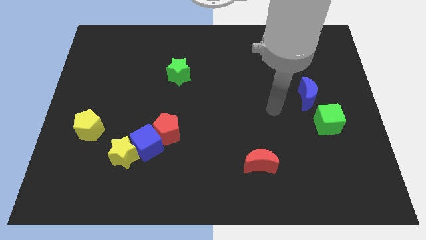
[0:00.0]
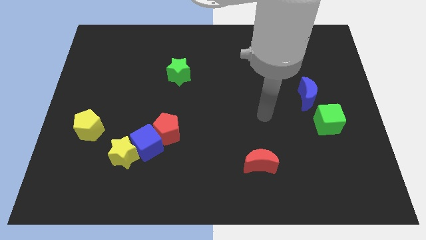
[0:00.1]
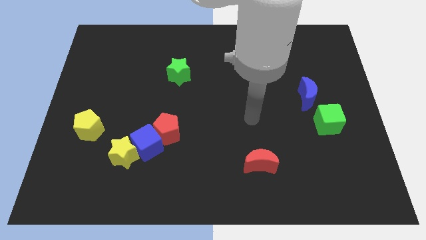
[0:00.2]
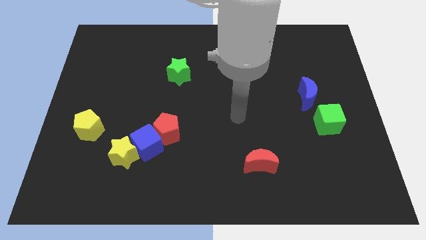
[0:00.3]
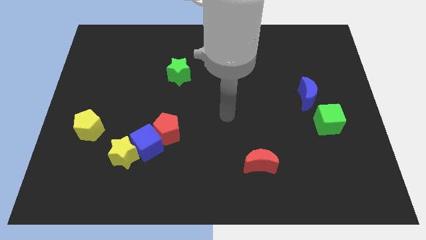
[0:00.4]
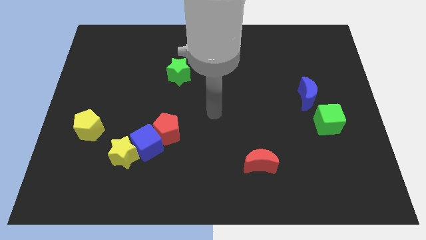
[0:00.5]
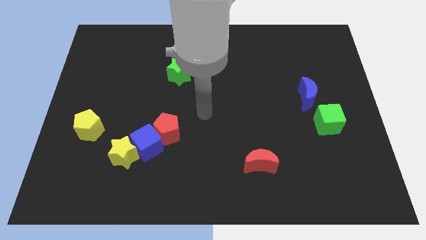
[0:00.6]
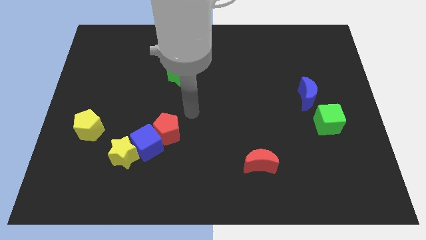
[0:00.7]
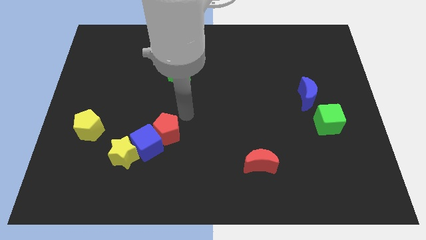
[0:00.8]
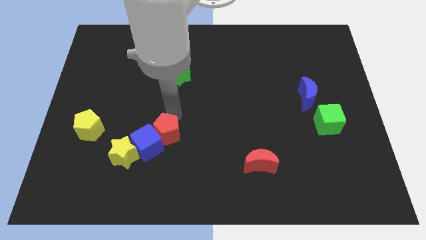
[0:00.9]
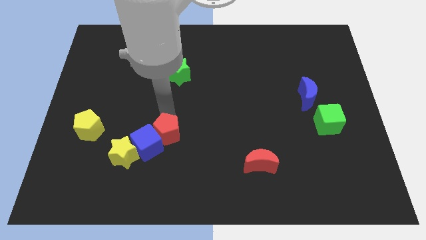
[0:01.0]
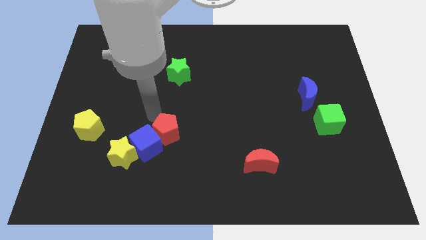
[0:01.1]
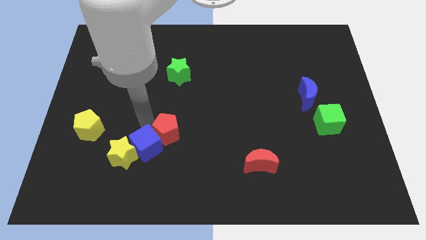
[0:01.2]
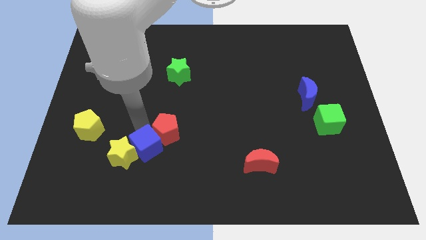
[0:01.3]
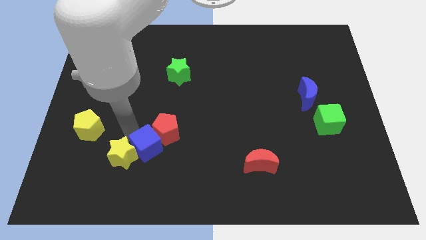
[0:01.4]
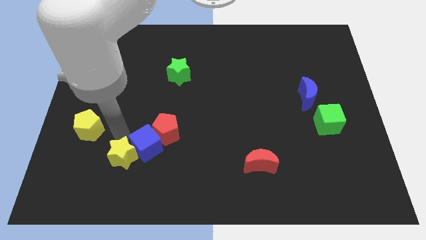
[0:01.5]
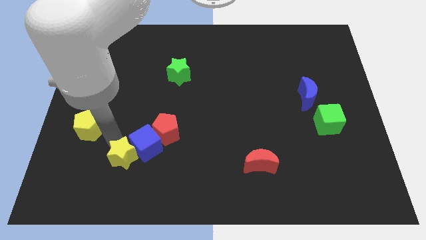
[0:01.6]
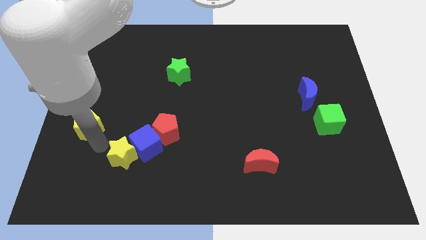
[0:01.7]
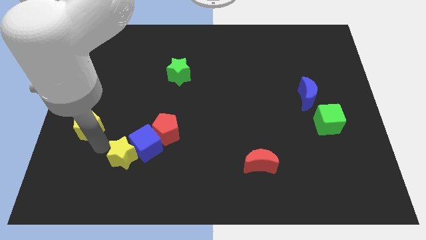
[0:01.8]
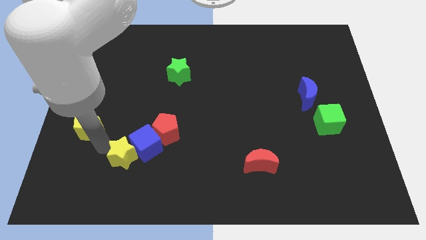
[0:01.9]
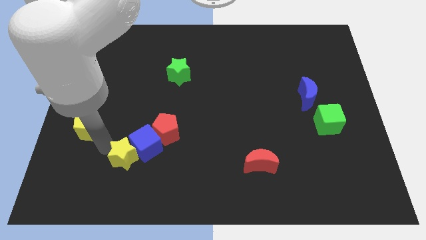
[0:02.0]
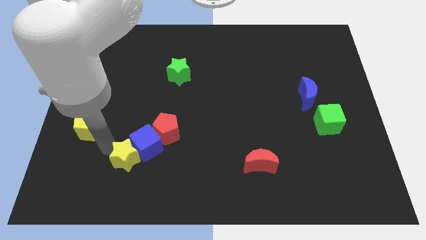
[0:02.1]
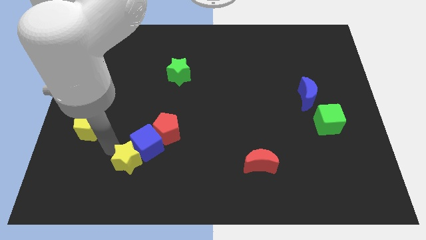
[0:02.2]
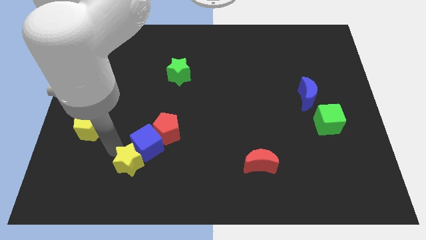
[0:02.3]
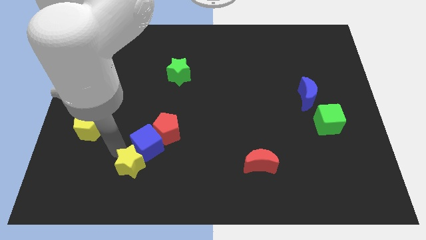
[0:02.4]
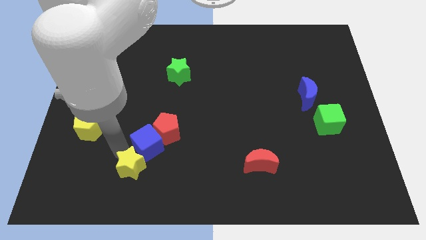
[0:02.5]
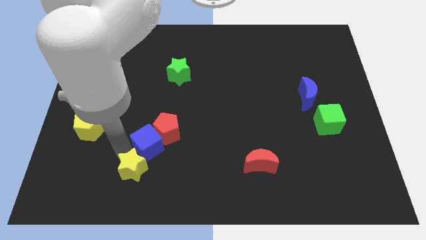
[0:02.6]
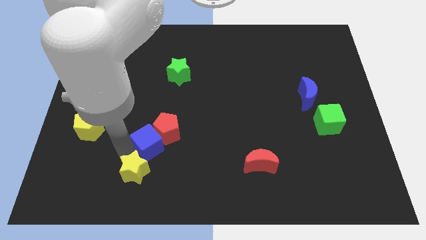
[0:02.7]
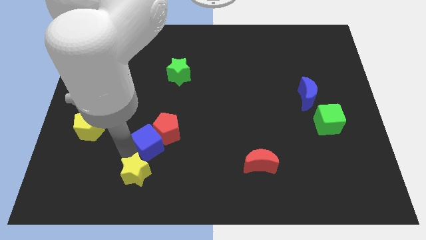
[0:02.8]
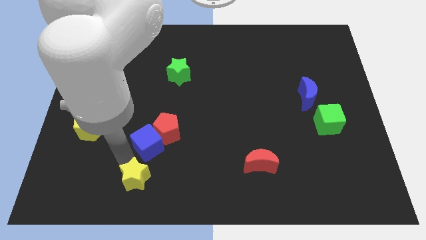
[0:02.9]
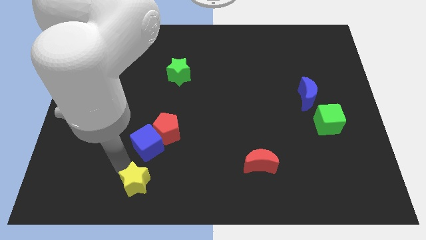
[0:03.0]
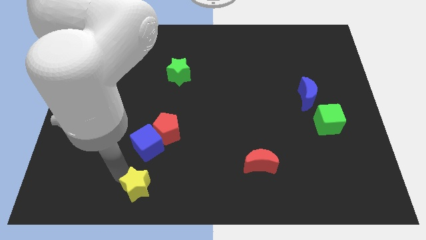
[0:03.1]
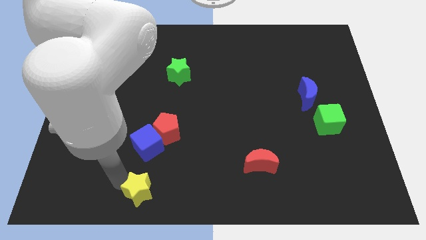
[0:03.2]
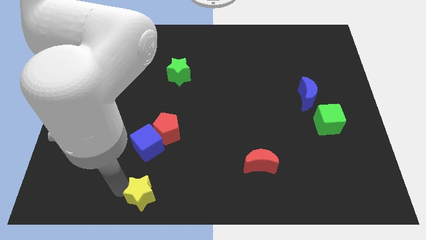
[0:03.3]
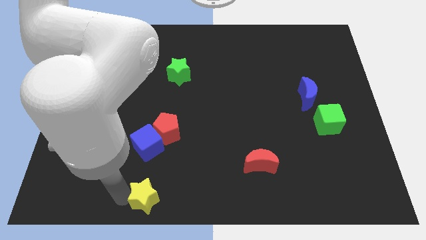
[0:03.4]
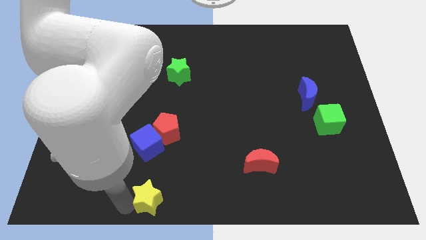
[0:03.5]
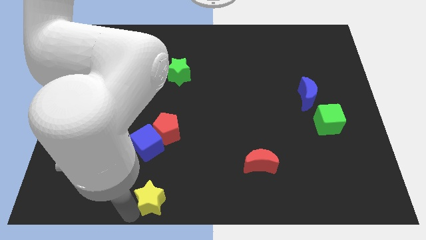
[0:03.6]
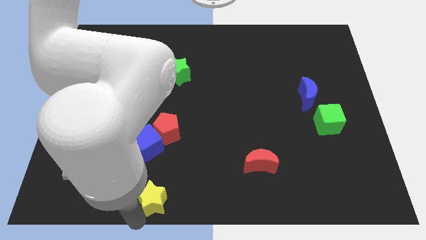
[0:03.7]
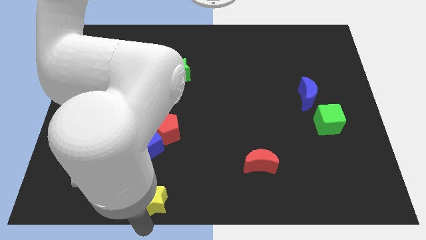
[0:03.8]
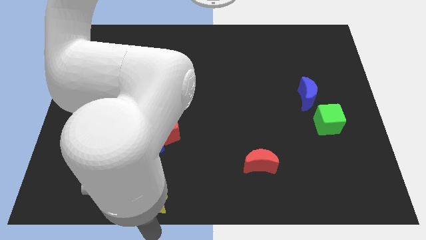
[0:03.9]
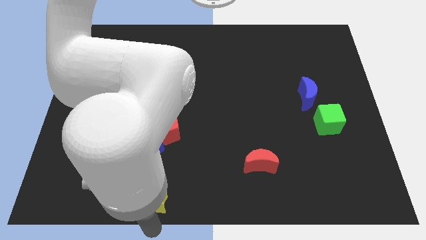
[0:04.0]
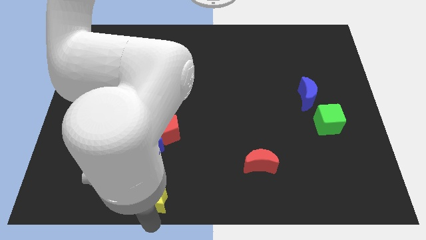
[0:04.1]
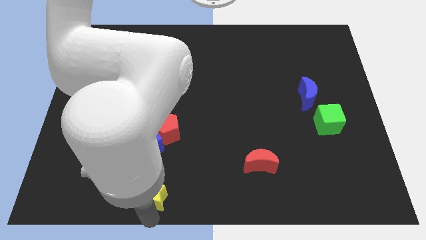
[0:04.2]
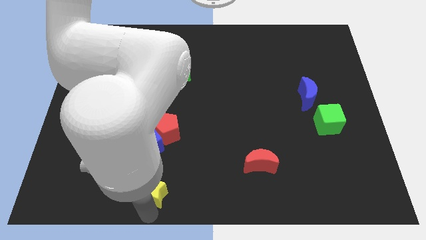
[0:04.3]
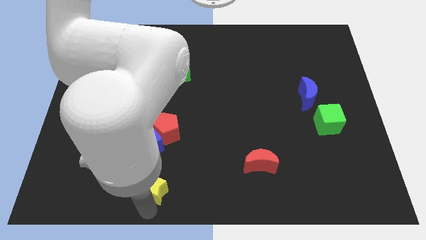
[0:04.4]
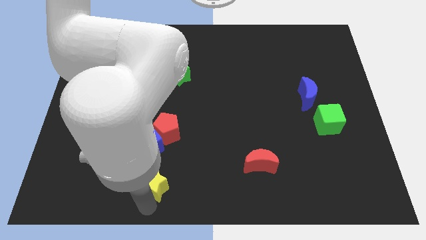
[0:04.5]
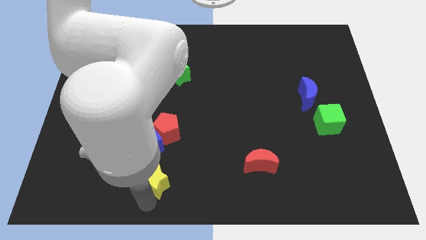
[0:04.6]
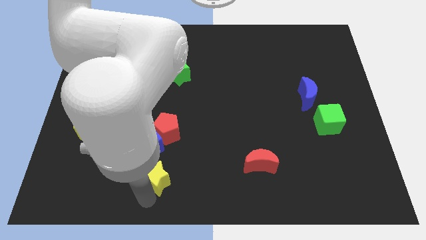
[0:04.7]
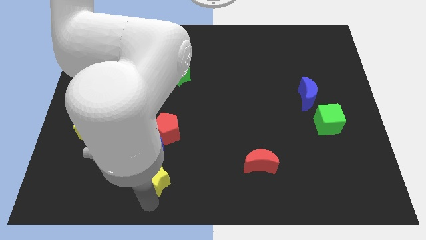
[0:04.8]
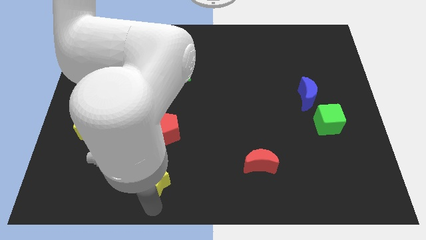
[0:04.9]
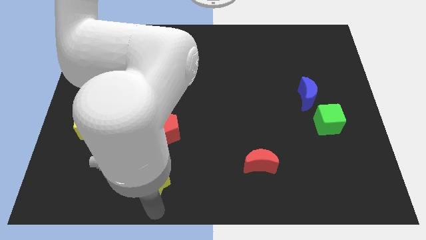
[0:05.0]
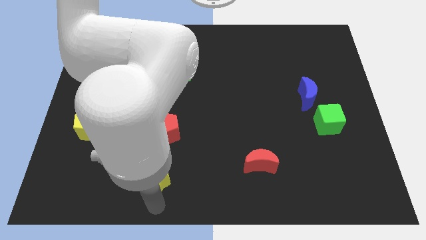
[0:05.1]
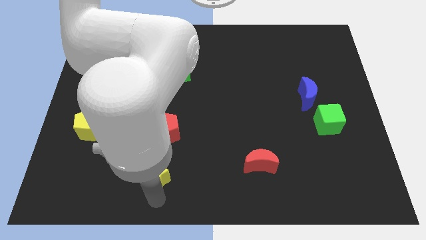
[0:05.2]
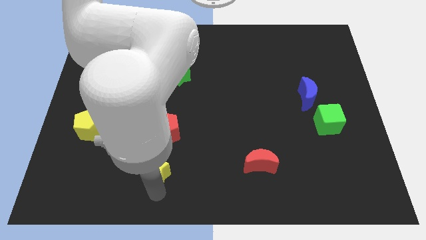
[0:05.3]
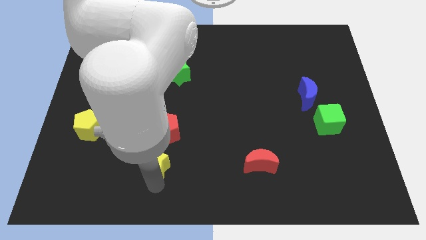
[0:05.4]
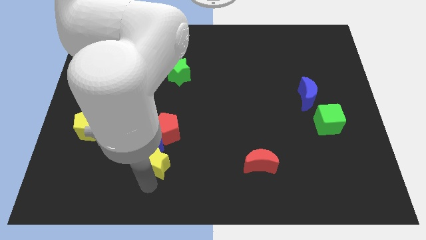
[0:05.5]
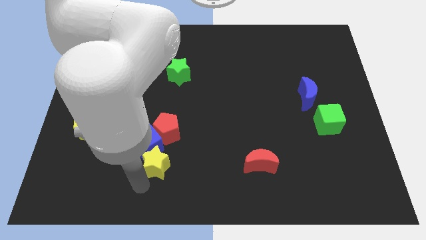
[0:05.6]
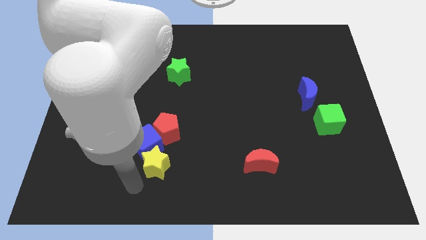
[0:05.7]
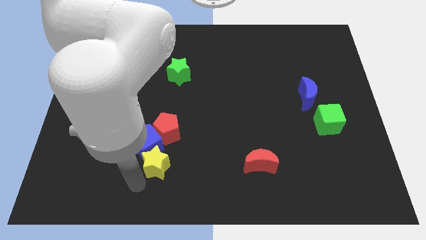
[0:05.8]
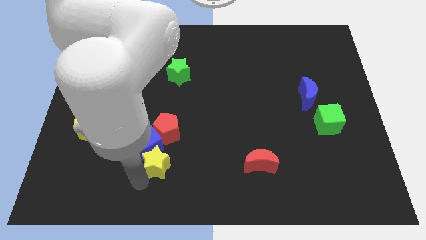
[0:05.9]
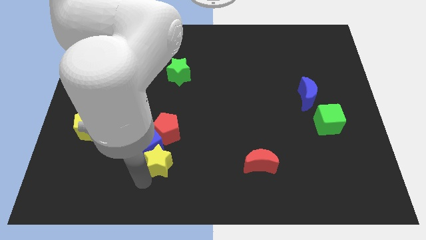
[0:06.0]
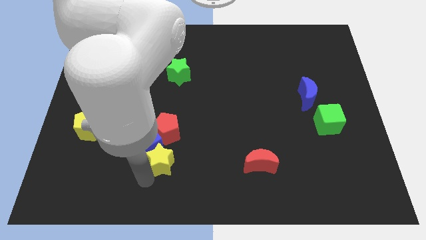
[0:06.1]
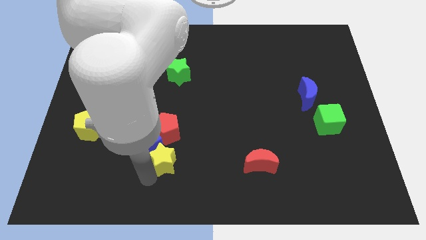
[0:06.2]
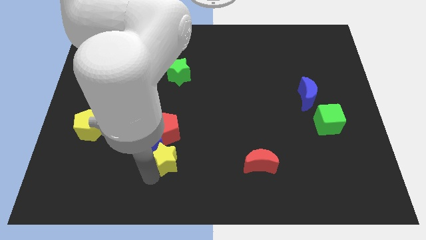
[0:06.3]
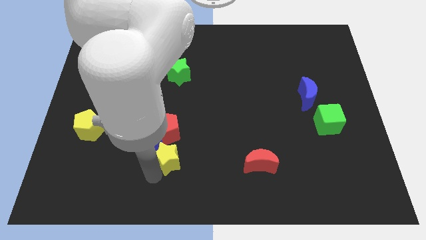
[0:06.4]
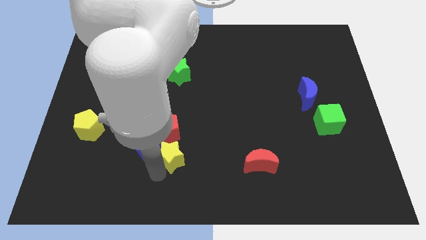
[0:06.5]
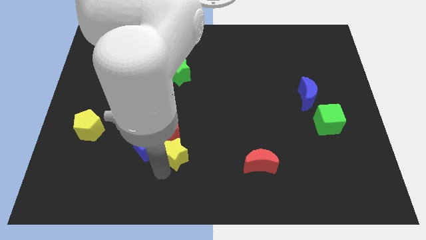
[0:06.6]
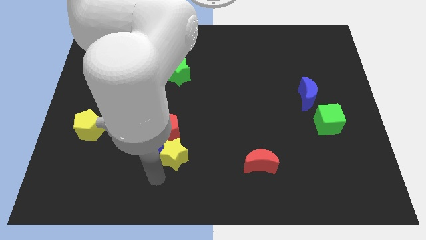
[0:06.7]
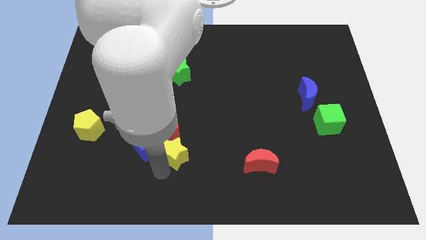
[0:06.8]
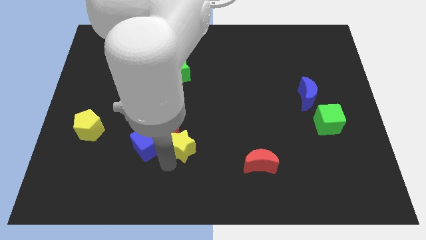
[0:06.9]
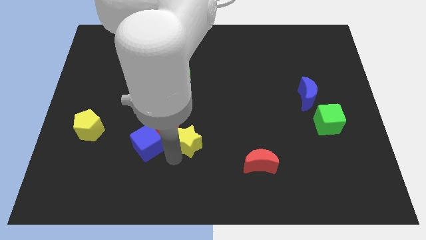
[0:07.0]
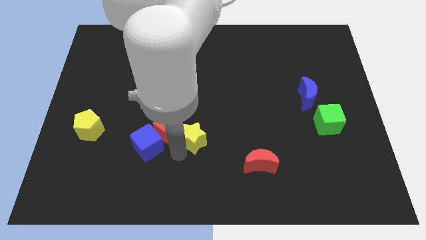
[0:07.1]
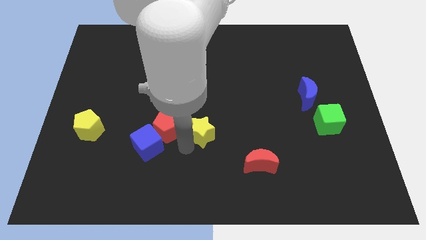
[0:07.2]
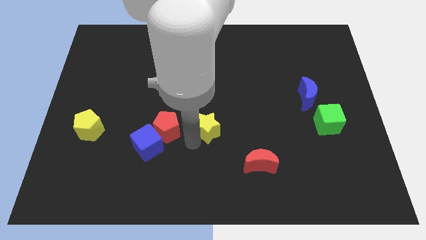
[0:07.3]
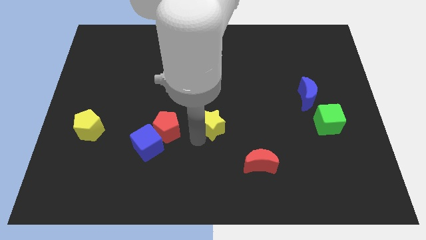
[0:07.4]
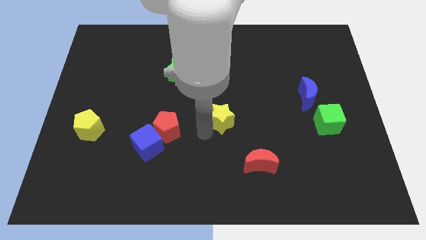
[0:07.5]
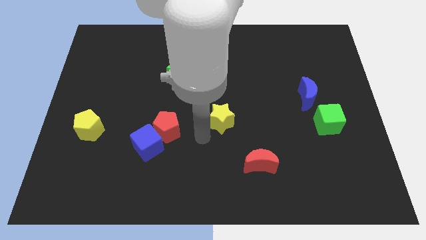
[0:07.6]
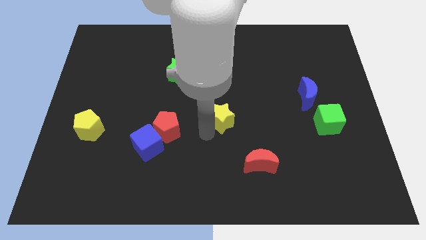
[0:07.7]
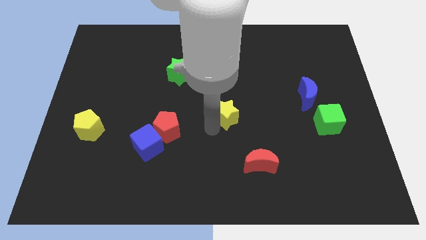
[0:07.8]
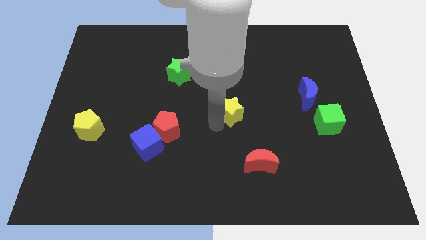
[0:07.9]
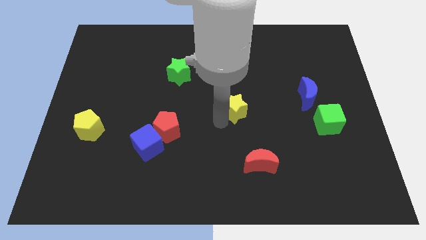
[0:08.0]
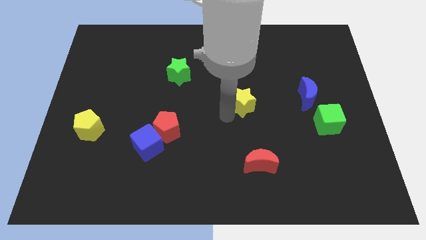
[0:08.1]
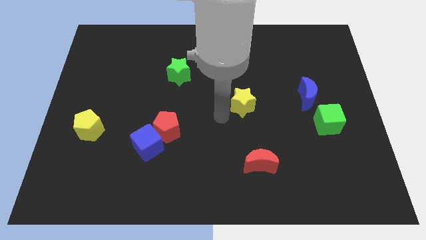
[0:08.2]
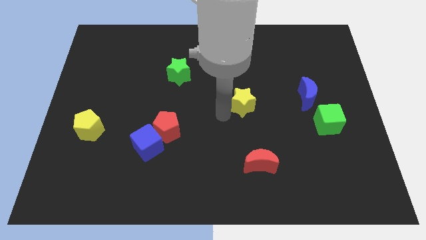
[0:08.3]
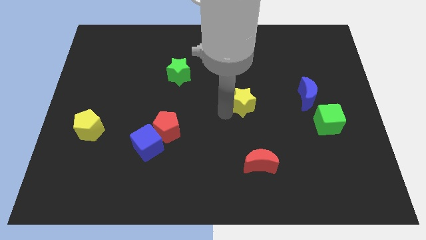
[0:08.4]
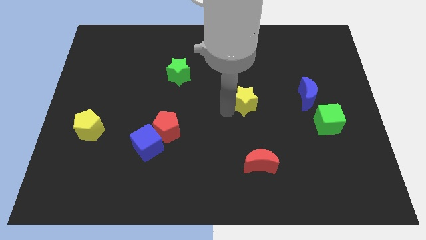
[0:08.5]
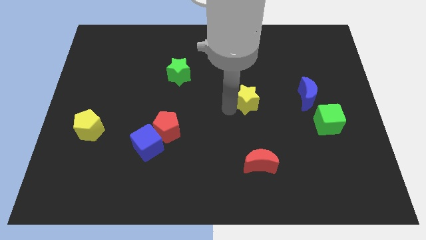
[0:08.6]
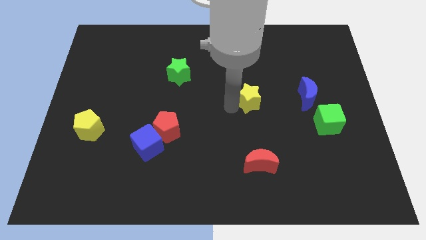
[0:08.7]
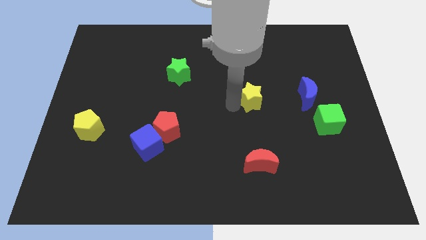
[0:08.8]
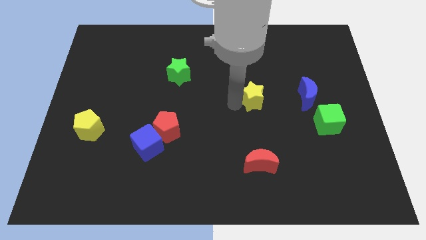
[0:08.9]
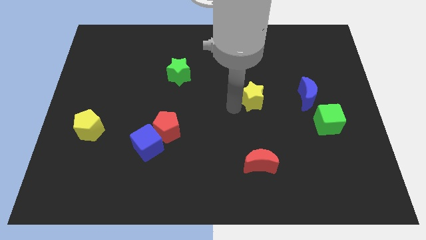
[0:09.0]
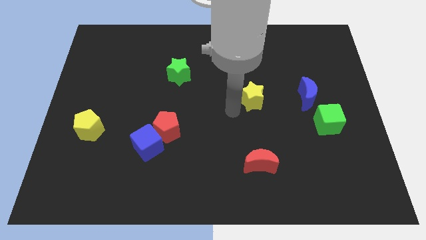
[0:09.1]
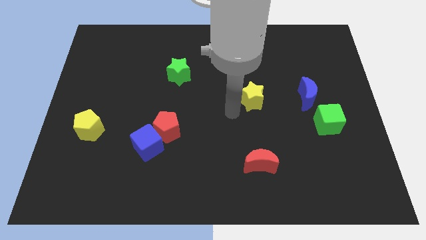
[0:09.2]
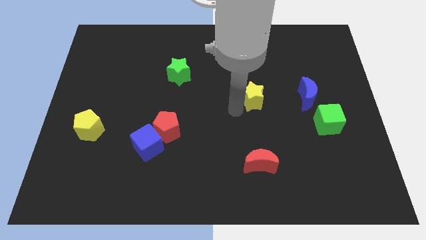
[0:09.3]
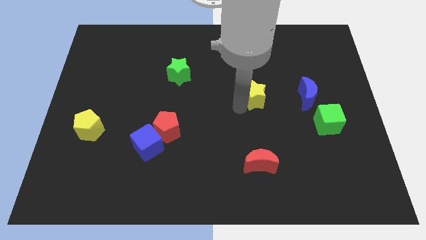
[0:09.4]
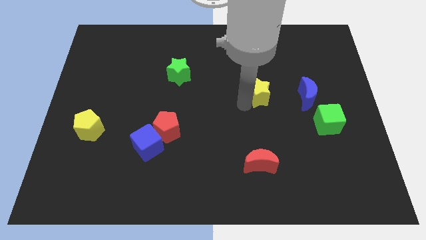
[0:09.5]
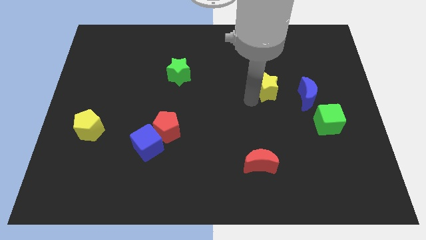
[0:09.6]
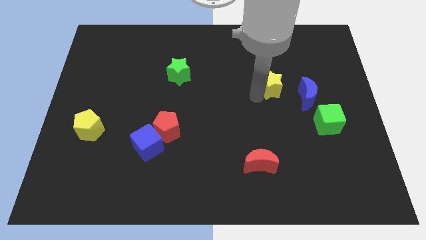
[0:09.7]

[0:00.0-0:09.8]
slide the yellow star diagonally up and to the left of the blue moon
